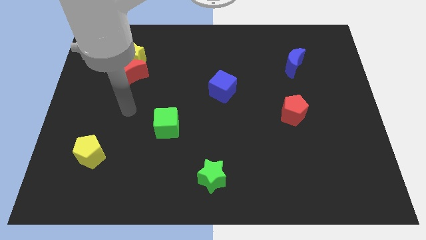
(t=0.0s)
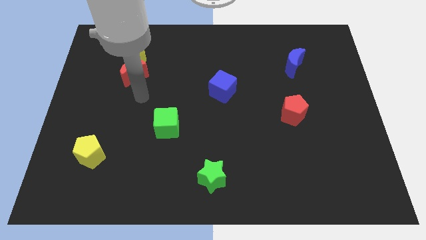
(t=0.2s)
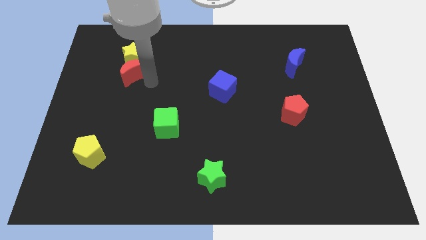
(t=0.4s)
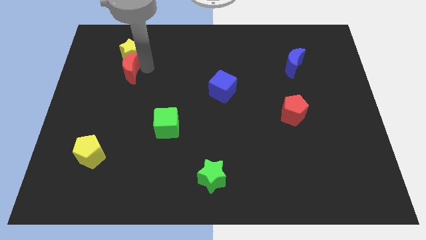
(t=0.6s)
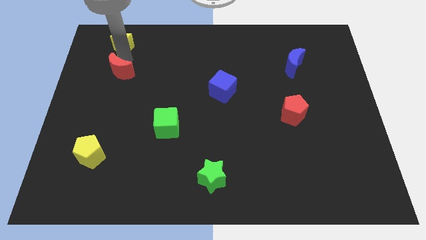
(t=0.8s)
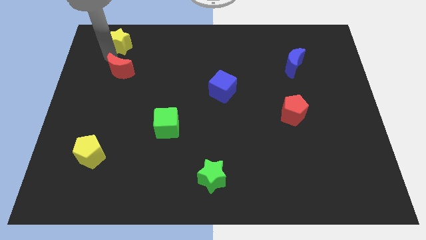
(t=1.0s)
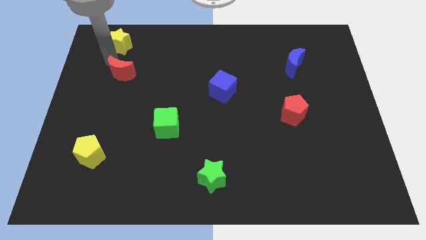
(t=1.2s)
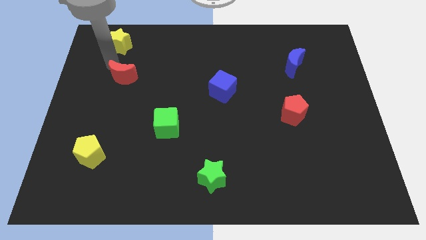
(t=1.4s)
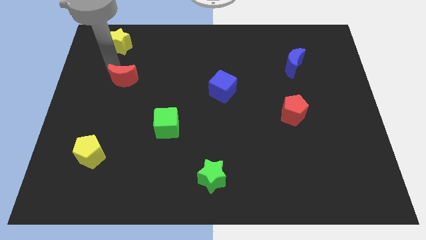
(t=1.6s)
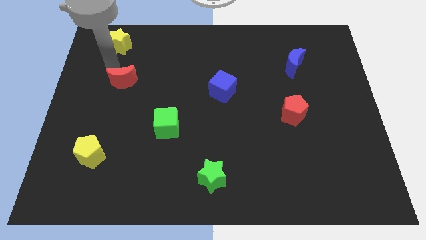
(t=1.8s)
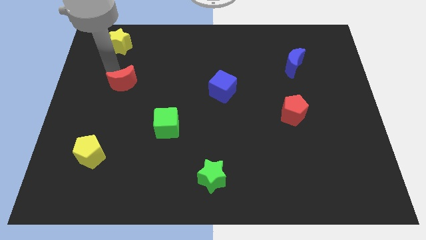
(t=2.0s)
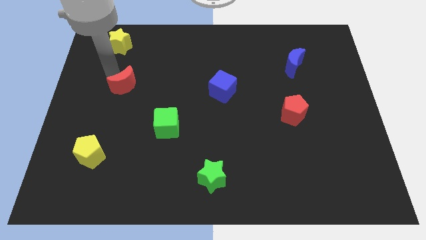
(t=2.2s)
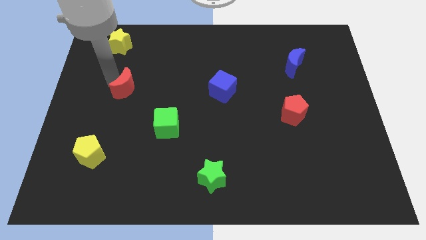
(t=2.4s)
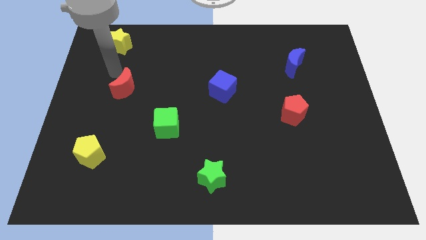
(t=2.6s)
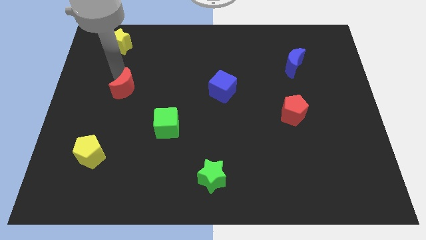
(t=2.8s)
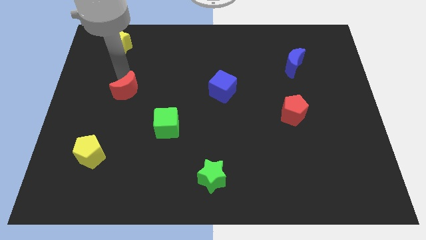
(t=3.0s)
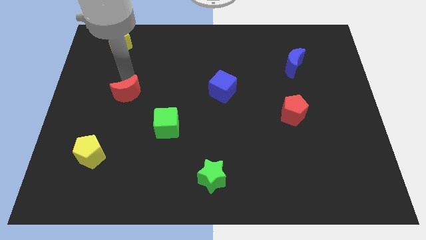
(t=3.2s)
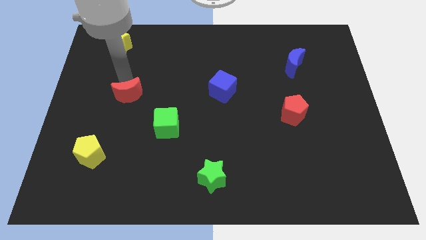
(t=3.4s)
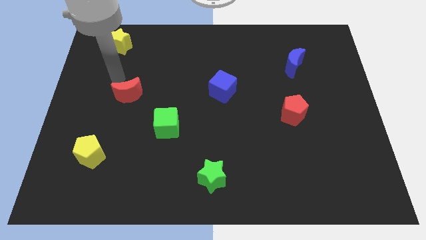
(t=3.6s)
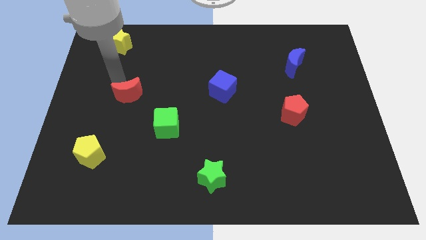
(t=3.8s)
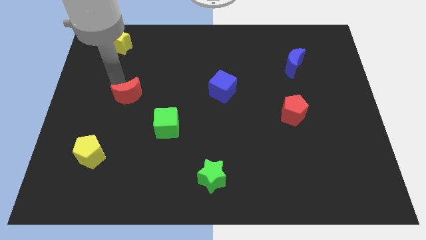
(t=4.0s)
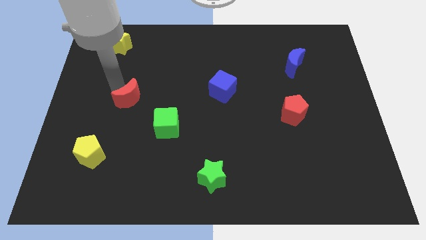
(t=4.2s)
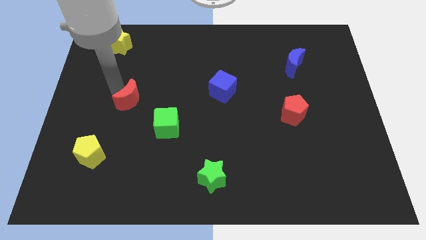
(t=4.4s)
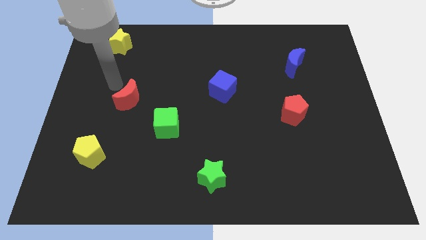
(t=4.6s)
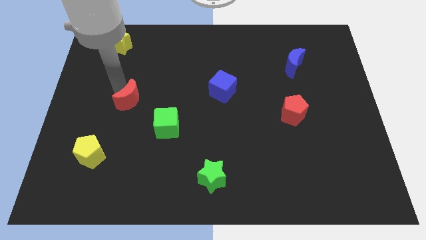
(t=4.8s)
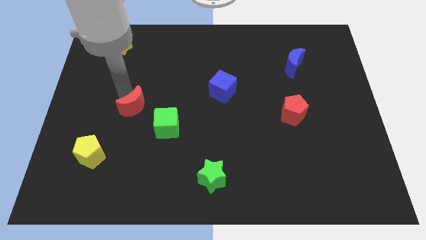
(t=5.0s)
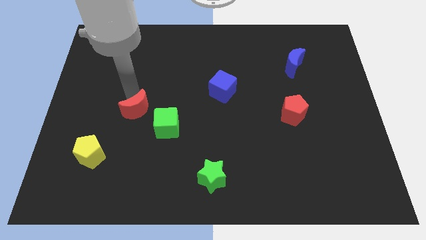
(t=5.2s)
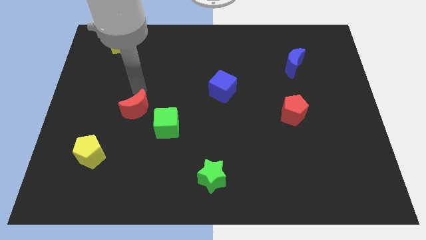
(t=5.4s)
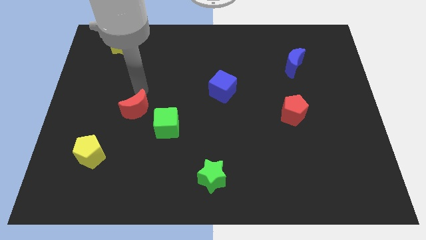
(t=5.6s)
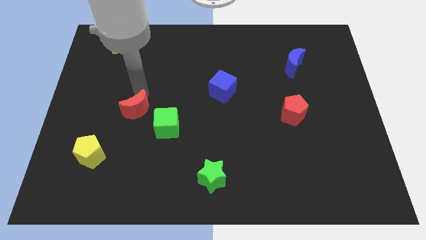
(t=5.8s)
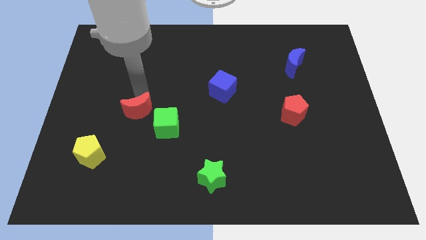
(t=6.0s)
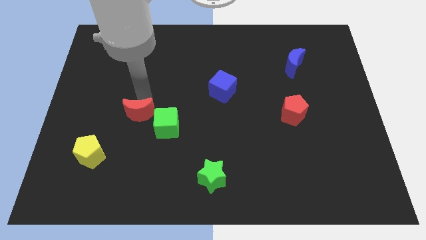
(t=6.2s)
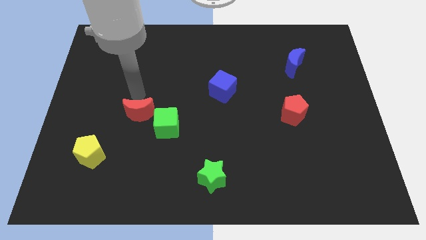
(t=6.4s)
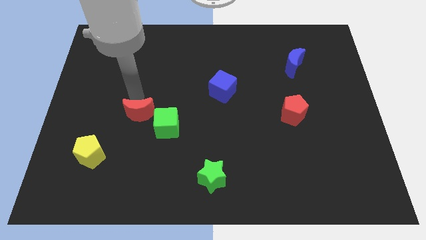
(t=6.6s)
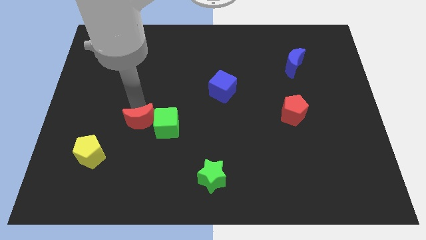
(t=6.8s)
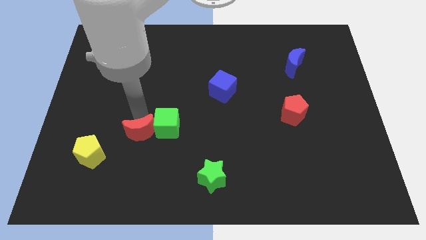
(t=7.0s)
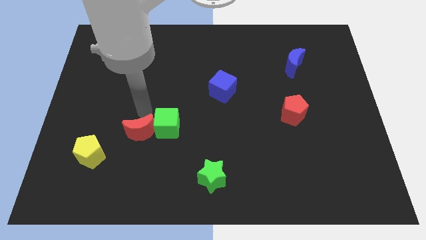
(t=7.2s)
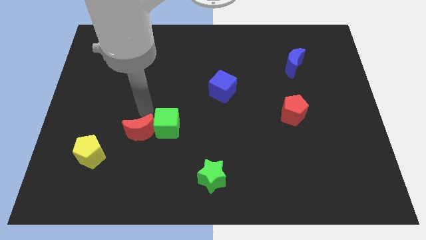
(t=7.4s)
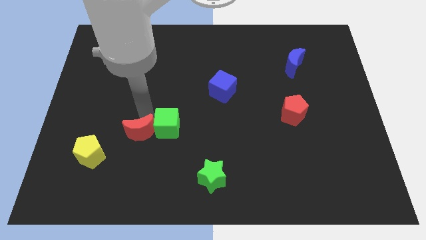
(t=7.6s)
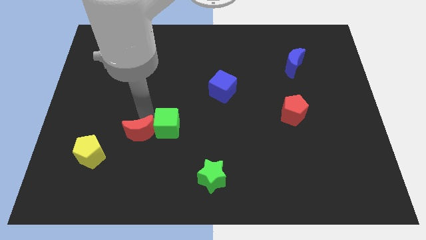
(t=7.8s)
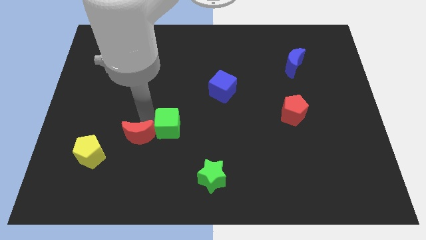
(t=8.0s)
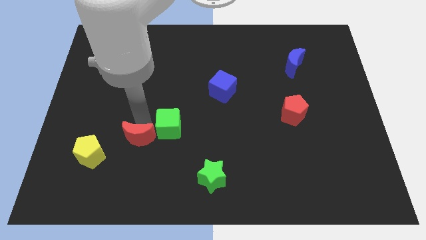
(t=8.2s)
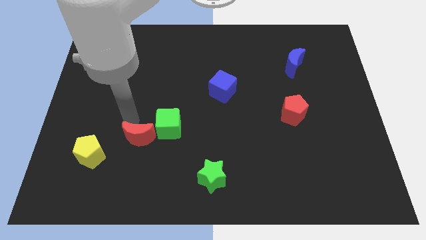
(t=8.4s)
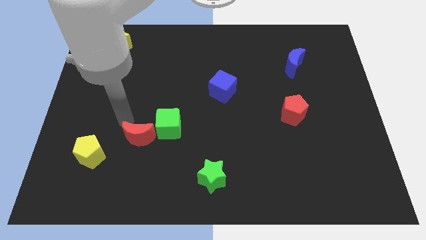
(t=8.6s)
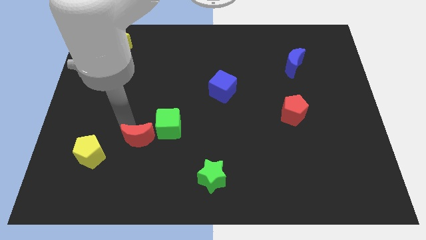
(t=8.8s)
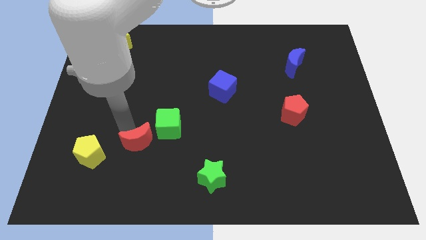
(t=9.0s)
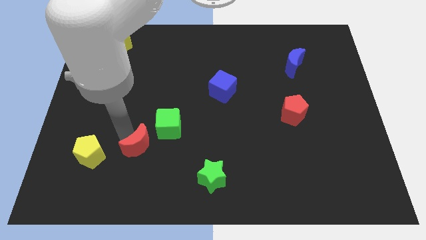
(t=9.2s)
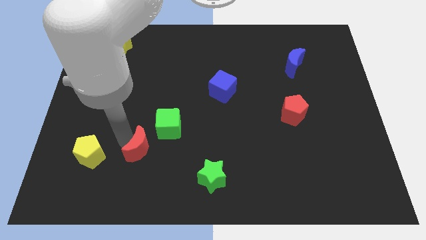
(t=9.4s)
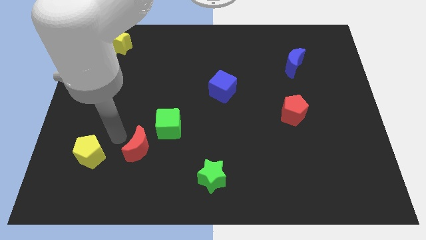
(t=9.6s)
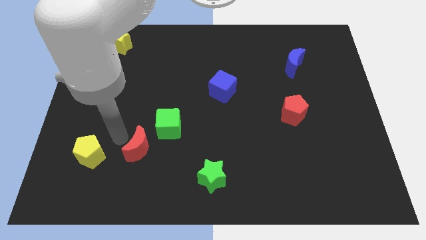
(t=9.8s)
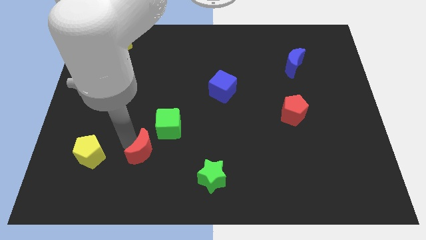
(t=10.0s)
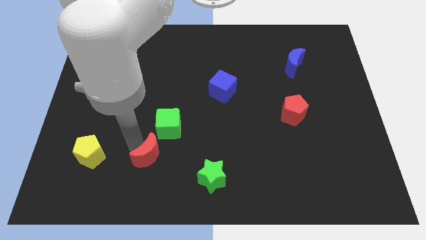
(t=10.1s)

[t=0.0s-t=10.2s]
put the red moon to the bottom of the green cube

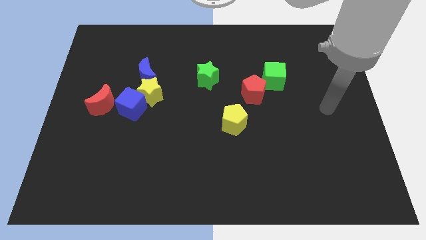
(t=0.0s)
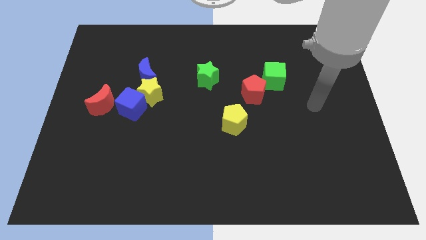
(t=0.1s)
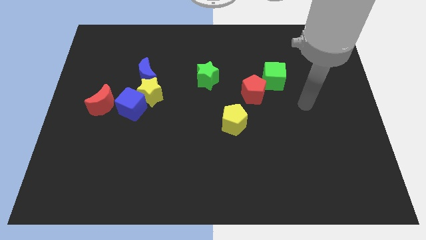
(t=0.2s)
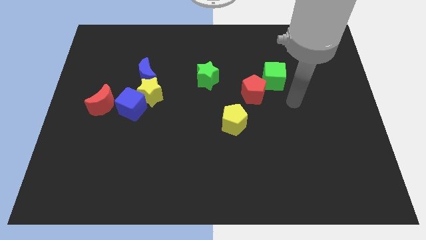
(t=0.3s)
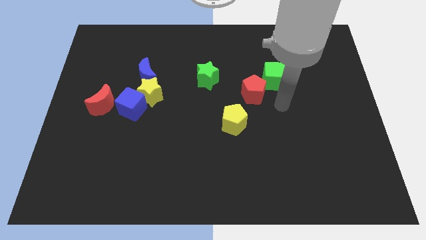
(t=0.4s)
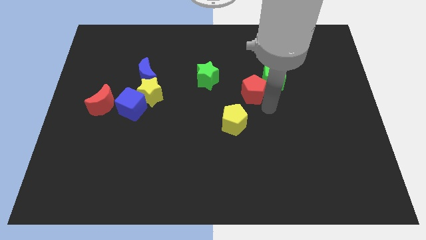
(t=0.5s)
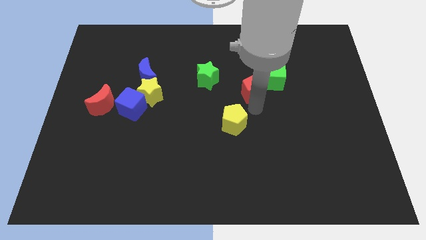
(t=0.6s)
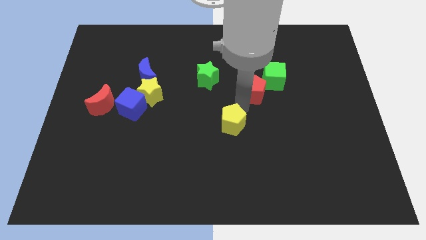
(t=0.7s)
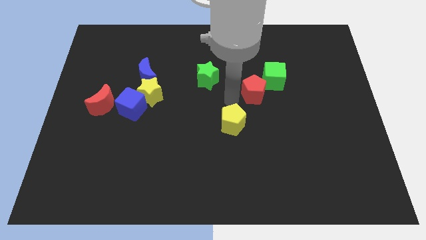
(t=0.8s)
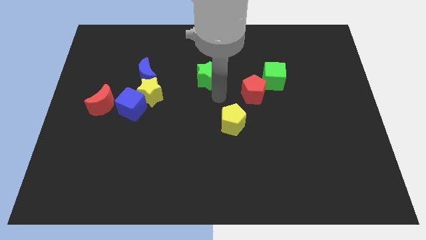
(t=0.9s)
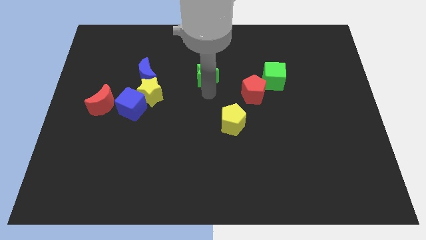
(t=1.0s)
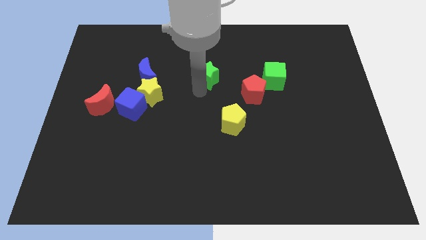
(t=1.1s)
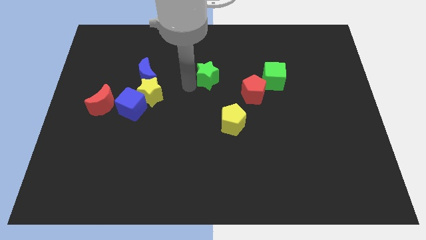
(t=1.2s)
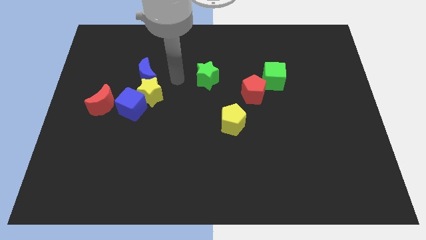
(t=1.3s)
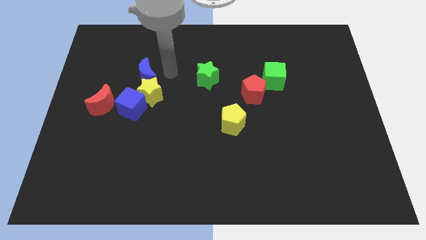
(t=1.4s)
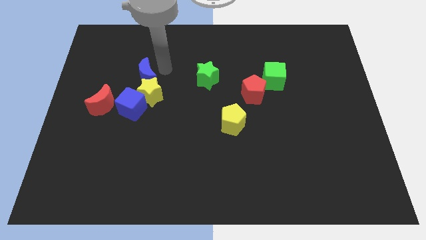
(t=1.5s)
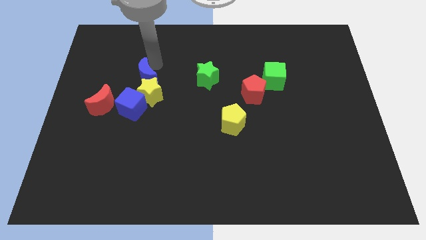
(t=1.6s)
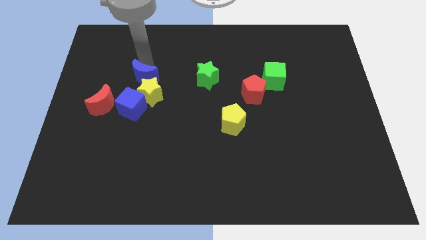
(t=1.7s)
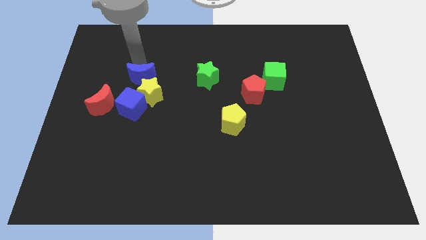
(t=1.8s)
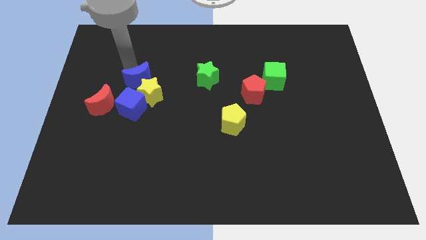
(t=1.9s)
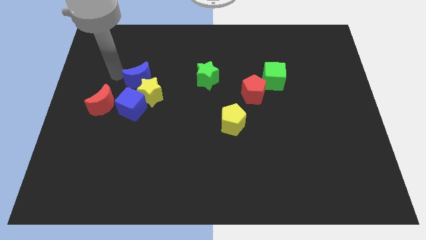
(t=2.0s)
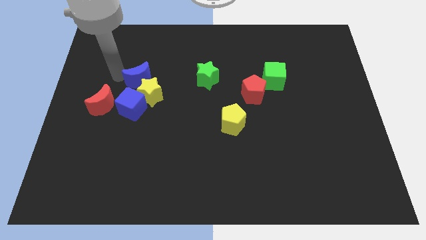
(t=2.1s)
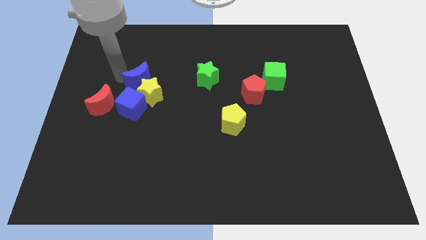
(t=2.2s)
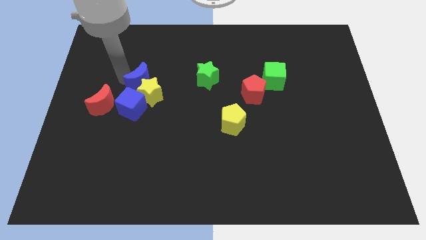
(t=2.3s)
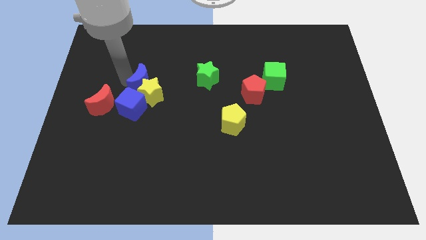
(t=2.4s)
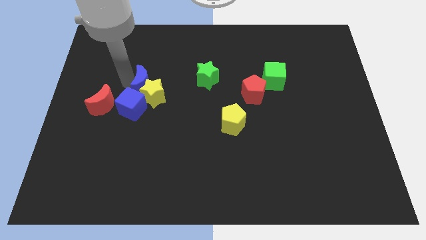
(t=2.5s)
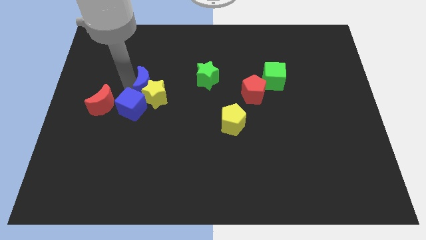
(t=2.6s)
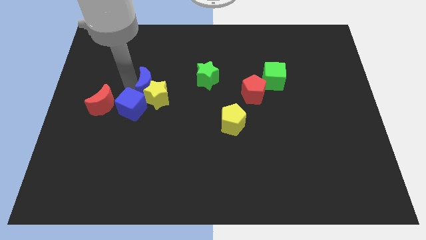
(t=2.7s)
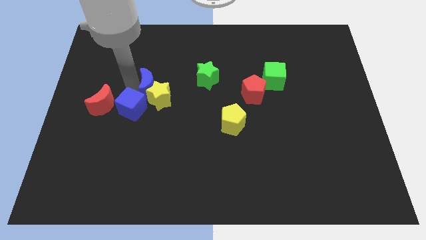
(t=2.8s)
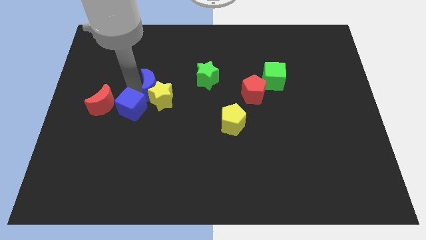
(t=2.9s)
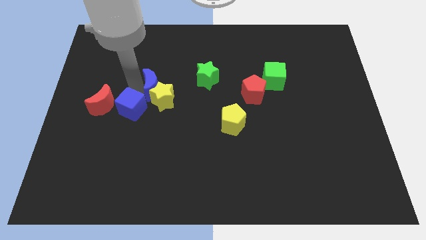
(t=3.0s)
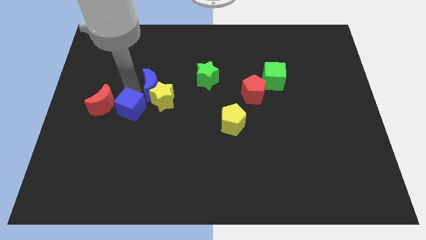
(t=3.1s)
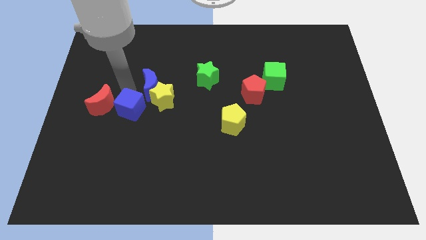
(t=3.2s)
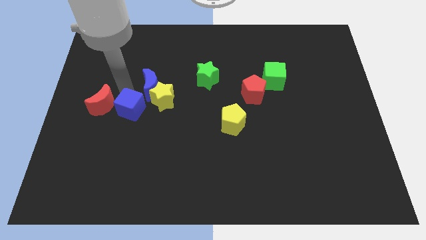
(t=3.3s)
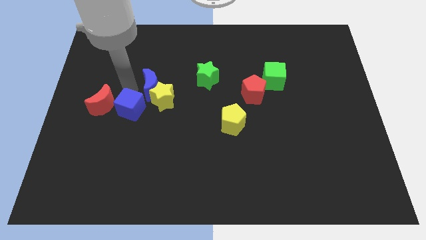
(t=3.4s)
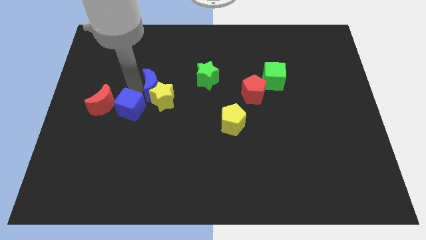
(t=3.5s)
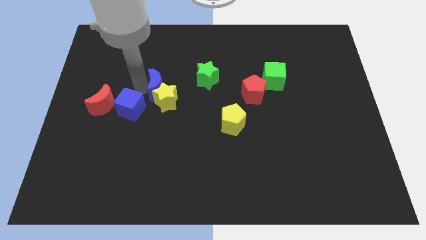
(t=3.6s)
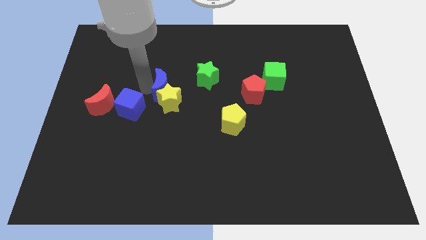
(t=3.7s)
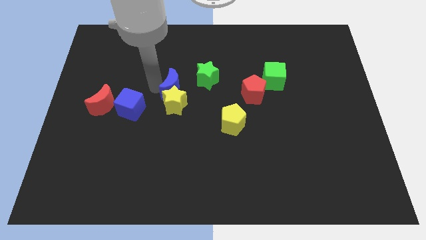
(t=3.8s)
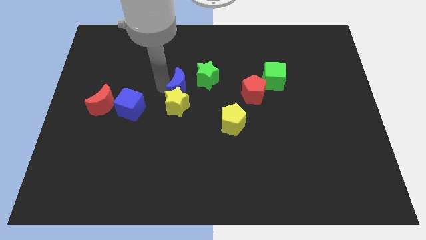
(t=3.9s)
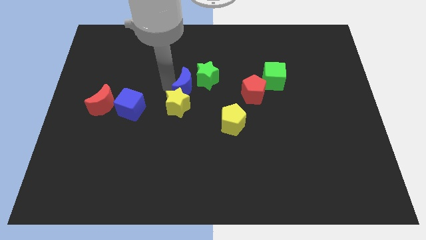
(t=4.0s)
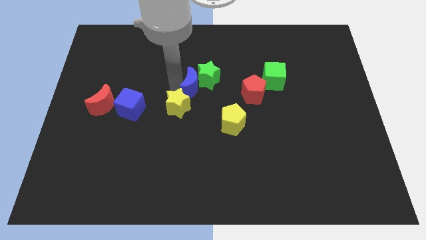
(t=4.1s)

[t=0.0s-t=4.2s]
slide the blue moon to the left of the red pentagon
